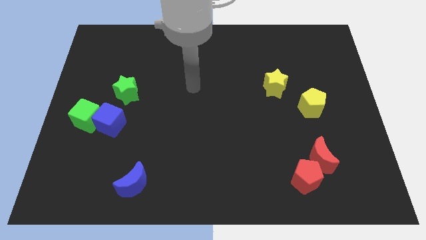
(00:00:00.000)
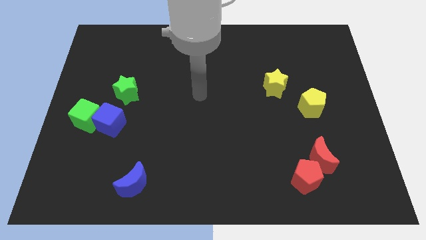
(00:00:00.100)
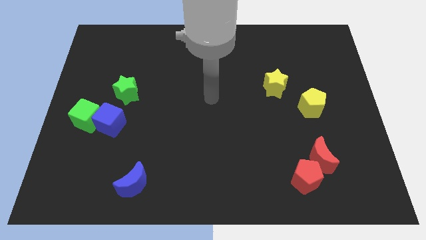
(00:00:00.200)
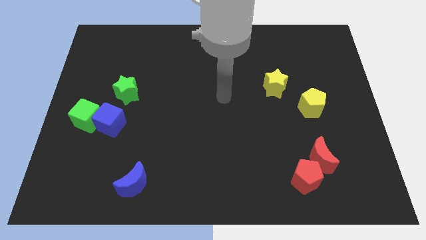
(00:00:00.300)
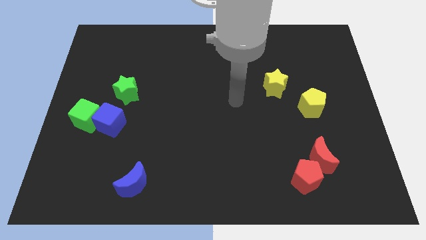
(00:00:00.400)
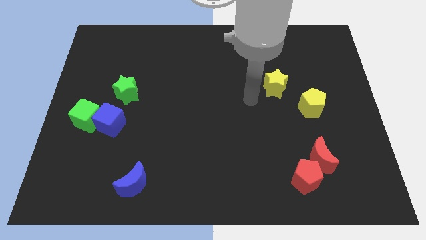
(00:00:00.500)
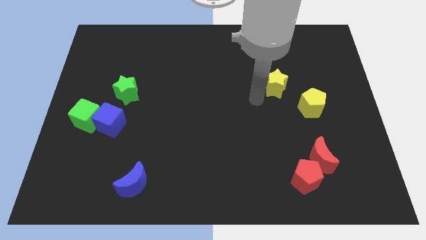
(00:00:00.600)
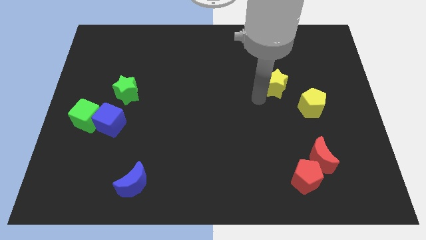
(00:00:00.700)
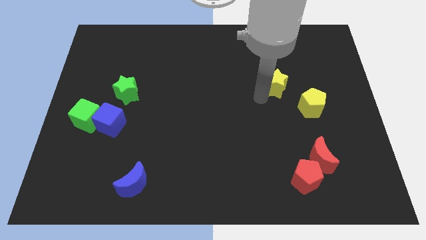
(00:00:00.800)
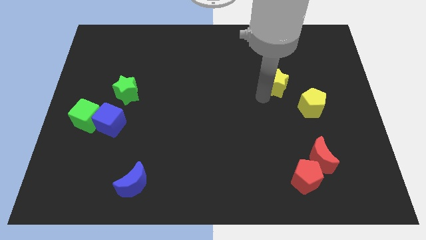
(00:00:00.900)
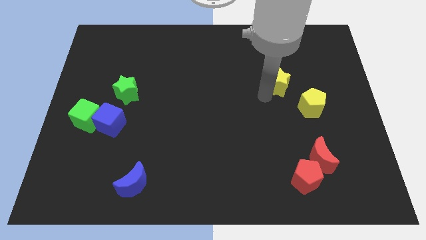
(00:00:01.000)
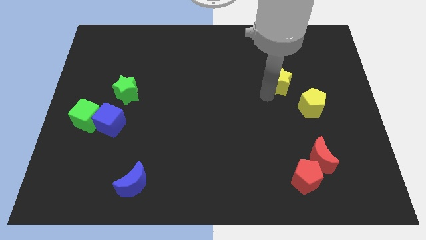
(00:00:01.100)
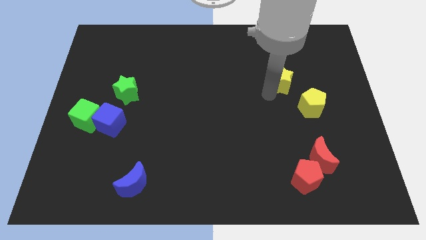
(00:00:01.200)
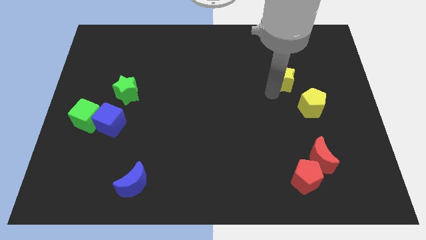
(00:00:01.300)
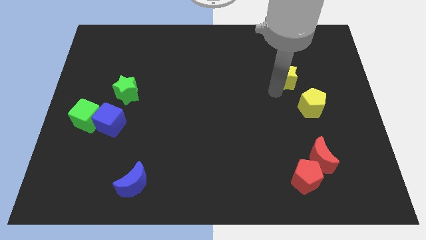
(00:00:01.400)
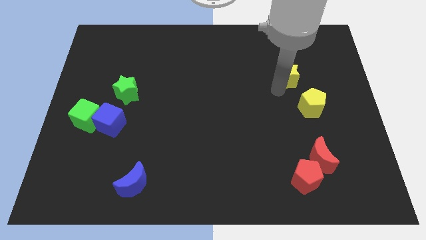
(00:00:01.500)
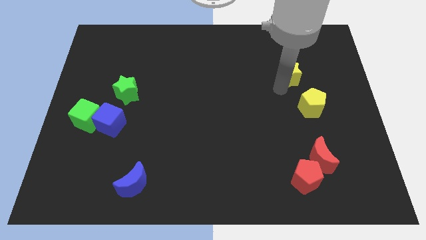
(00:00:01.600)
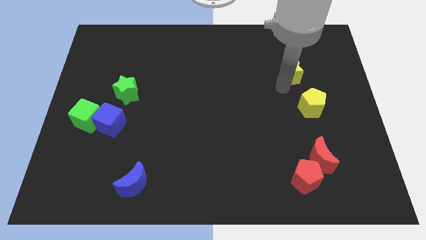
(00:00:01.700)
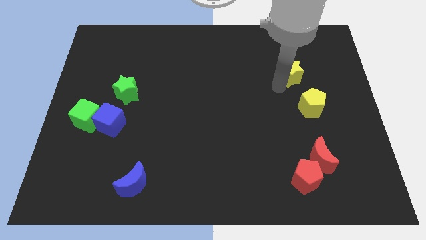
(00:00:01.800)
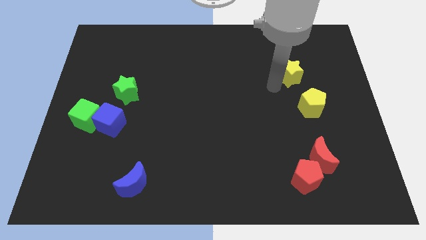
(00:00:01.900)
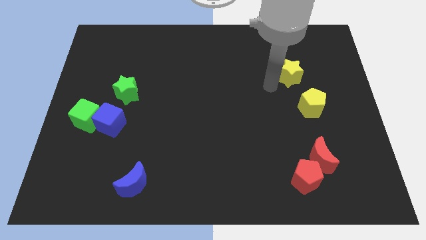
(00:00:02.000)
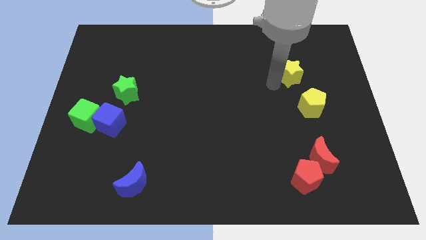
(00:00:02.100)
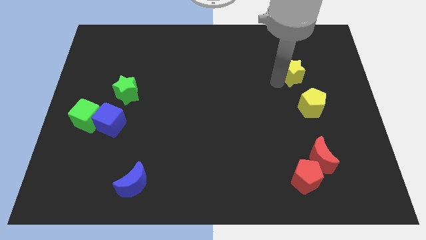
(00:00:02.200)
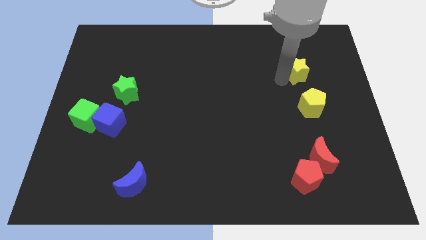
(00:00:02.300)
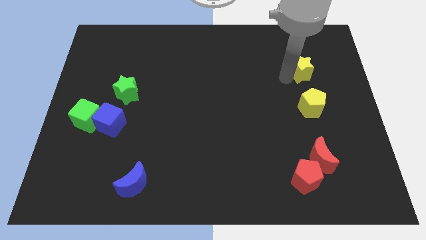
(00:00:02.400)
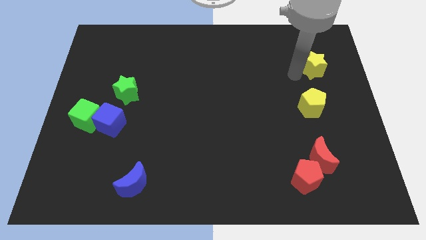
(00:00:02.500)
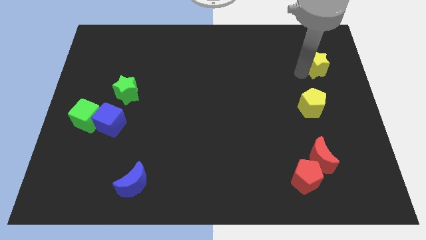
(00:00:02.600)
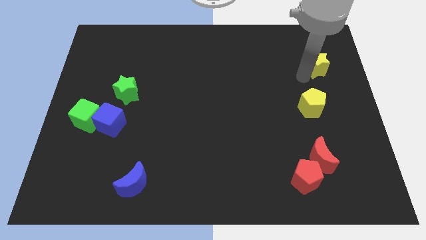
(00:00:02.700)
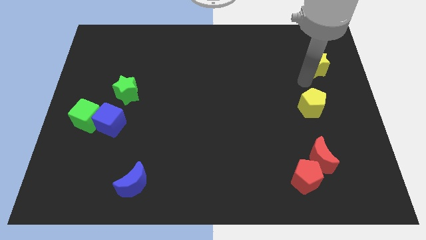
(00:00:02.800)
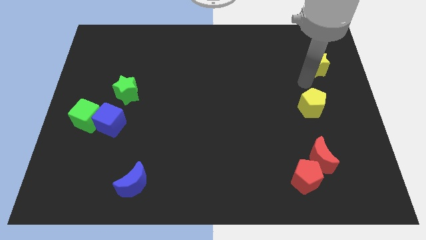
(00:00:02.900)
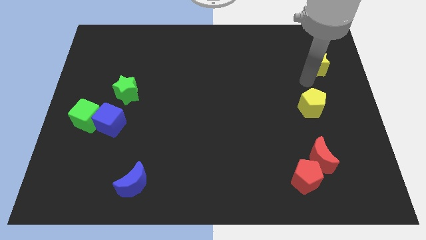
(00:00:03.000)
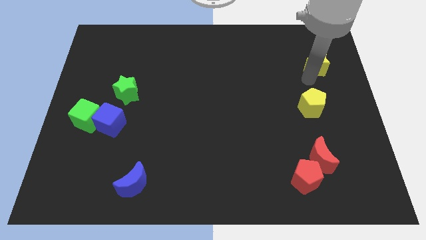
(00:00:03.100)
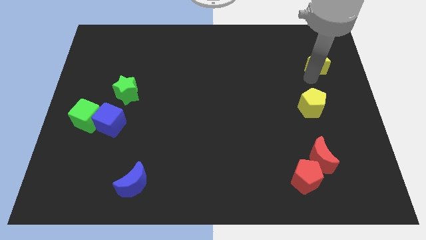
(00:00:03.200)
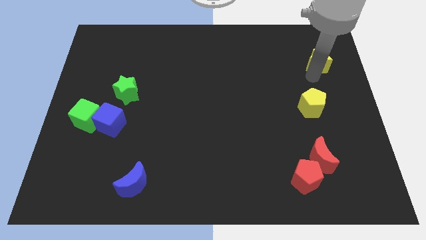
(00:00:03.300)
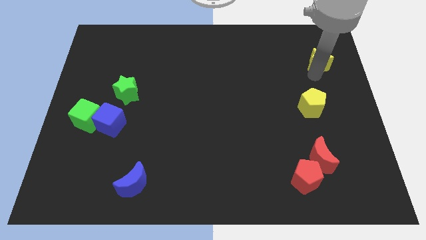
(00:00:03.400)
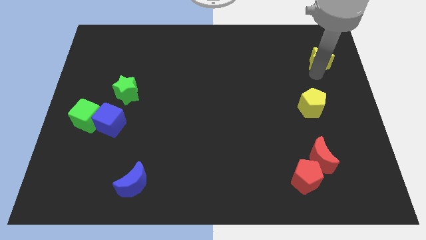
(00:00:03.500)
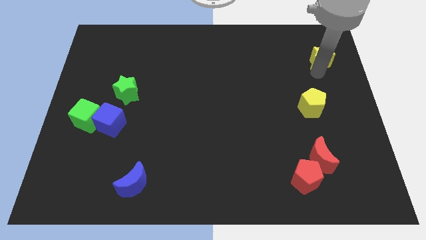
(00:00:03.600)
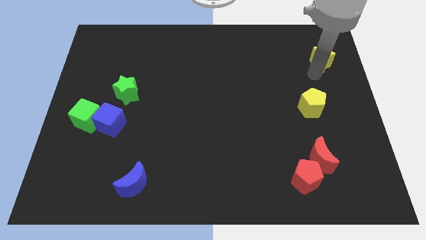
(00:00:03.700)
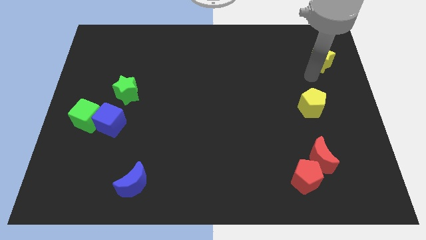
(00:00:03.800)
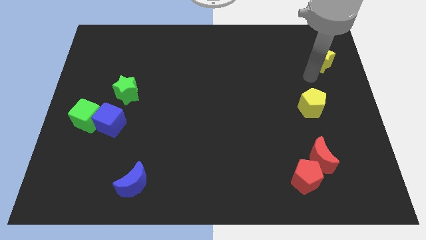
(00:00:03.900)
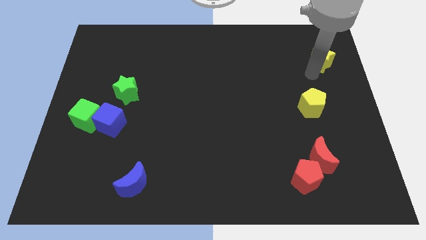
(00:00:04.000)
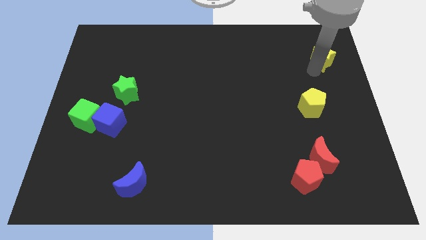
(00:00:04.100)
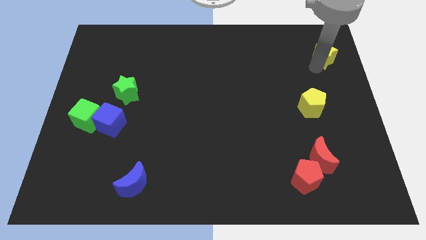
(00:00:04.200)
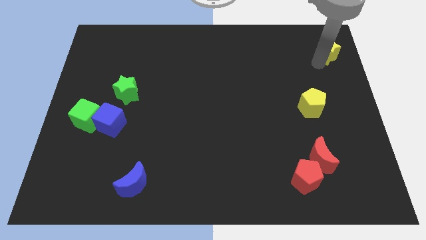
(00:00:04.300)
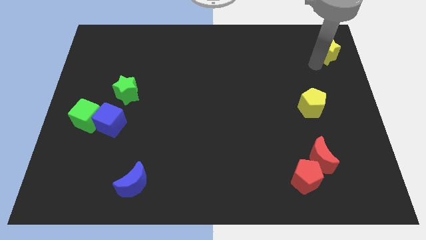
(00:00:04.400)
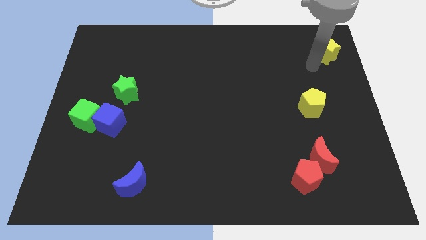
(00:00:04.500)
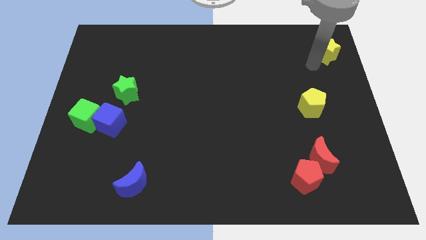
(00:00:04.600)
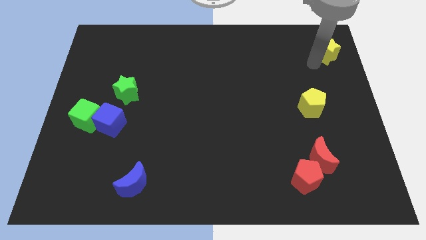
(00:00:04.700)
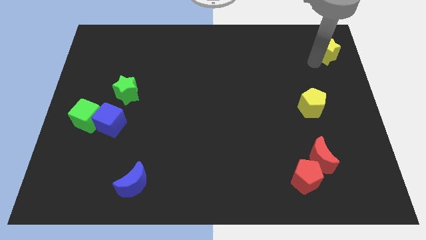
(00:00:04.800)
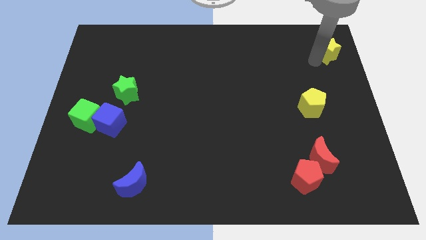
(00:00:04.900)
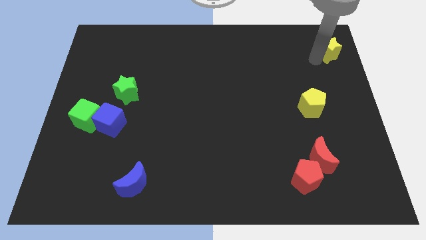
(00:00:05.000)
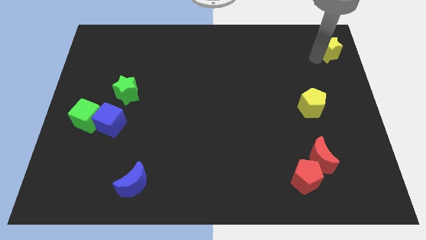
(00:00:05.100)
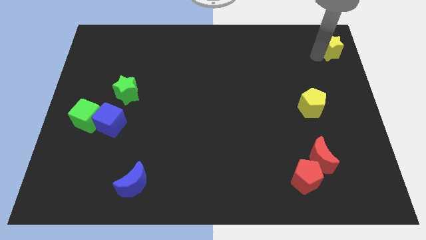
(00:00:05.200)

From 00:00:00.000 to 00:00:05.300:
push the yellow star to the upper right corner

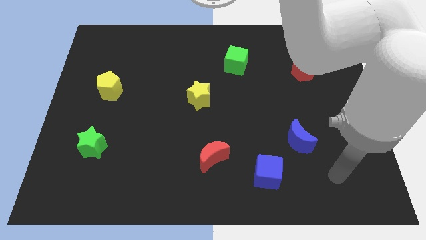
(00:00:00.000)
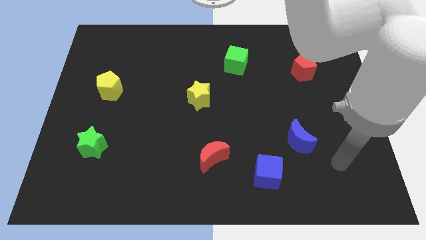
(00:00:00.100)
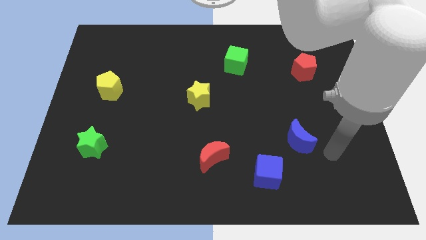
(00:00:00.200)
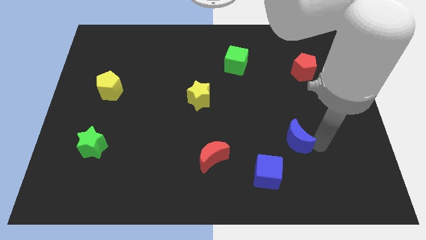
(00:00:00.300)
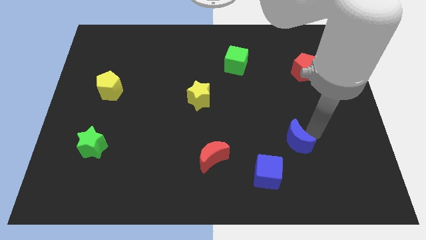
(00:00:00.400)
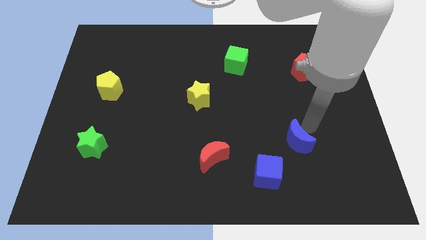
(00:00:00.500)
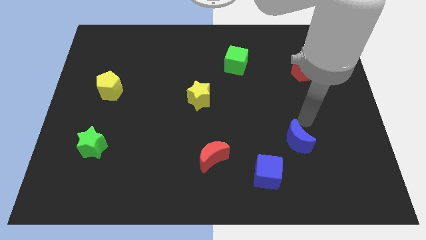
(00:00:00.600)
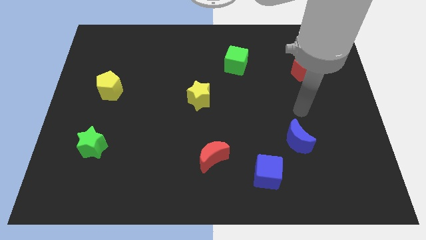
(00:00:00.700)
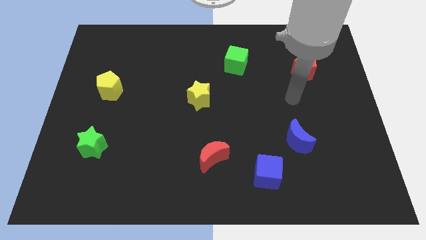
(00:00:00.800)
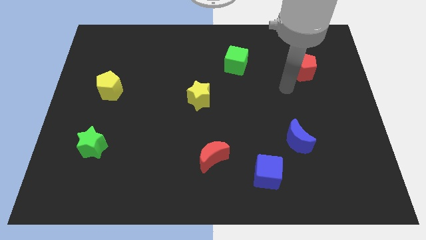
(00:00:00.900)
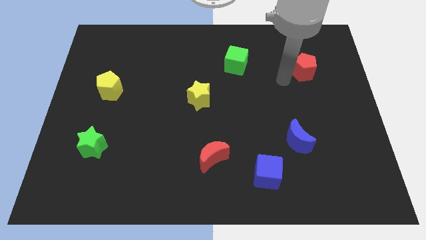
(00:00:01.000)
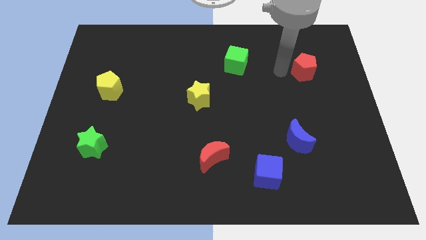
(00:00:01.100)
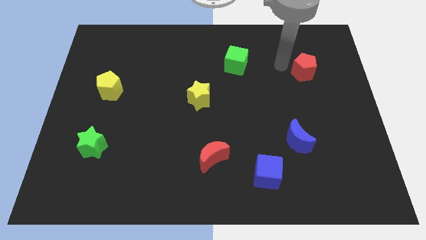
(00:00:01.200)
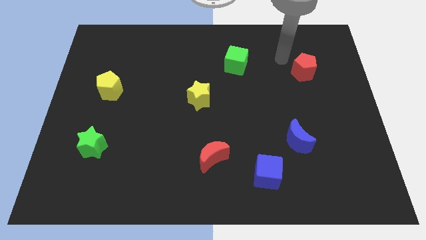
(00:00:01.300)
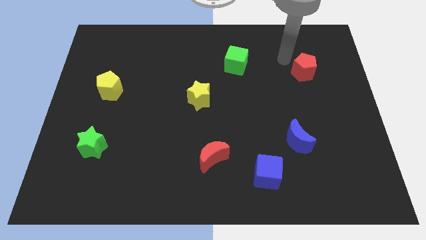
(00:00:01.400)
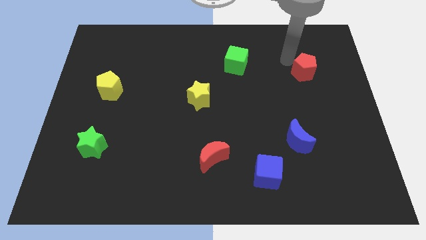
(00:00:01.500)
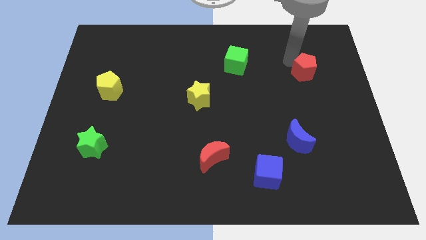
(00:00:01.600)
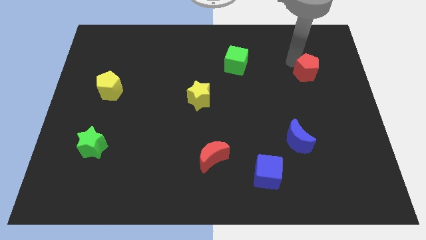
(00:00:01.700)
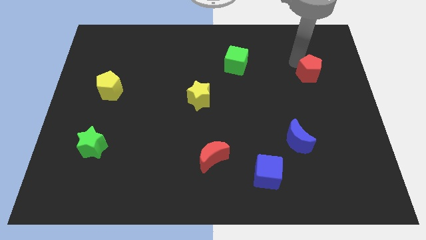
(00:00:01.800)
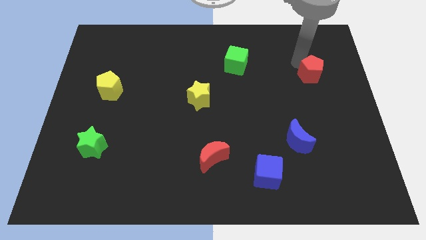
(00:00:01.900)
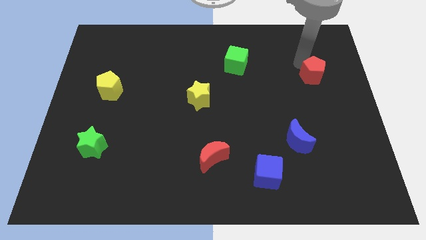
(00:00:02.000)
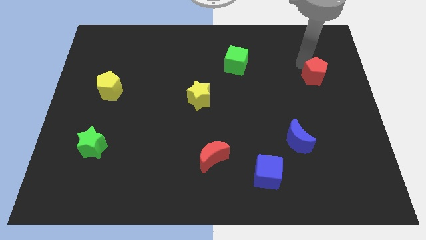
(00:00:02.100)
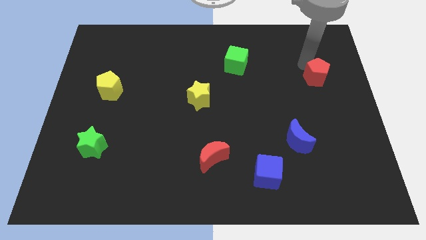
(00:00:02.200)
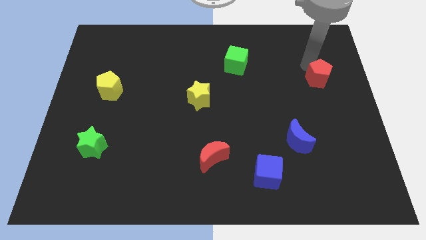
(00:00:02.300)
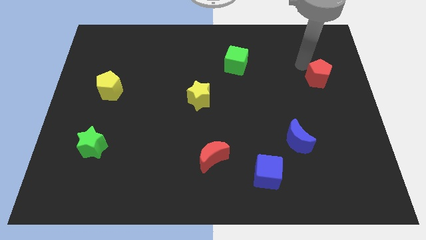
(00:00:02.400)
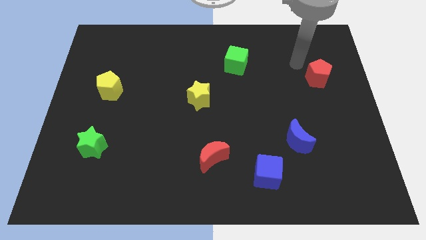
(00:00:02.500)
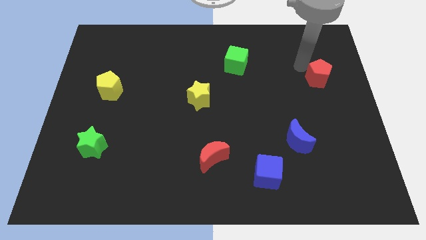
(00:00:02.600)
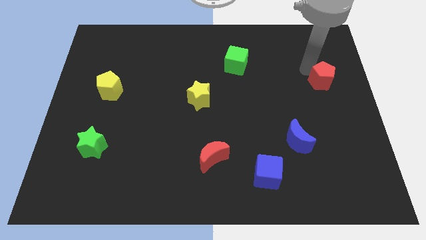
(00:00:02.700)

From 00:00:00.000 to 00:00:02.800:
push the red pentagon to the right side of the board
